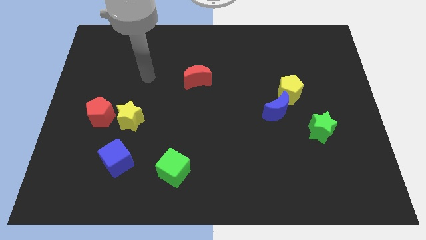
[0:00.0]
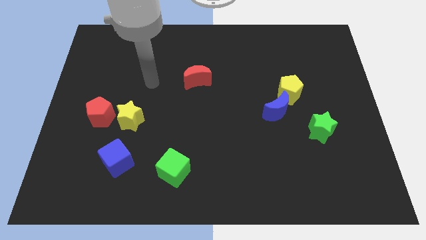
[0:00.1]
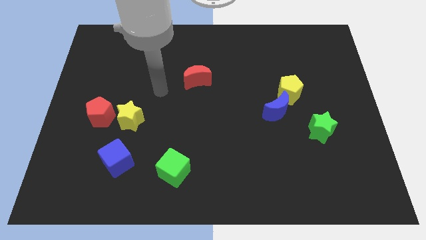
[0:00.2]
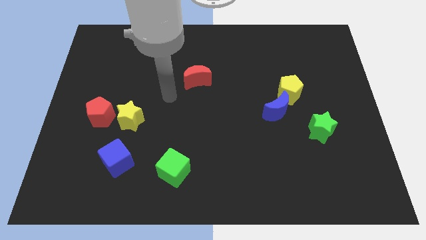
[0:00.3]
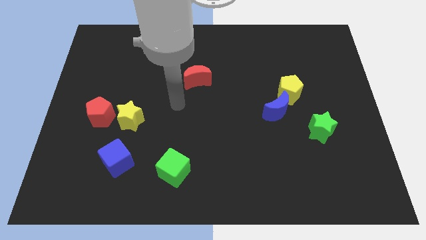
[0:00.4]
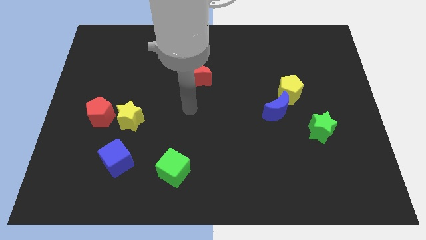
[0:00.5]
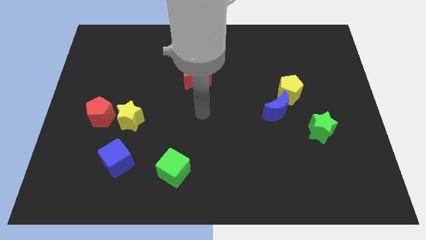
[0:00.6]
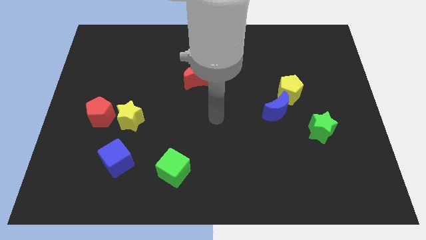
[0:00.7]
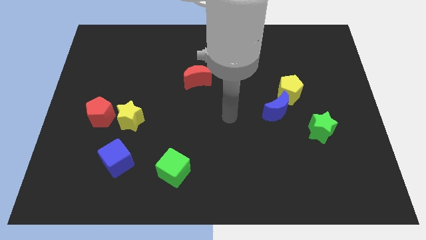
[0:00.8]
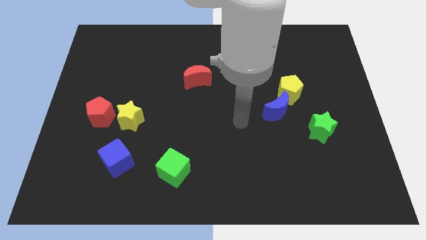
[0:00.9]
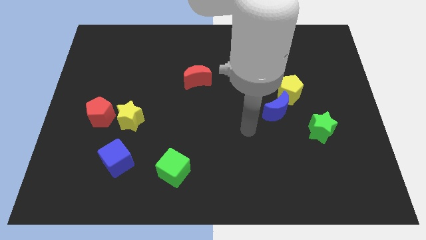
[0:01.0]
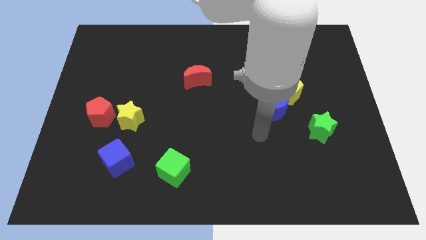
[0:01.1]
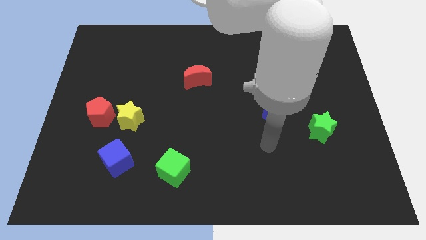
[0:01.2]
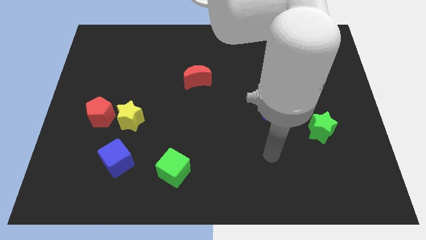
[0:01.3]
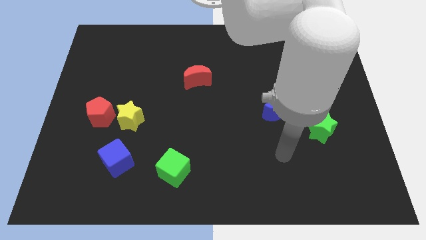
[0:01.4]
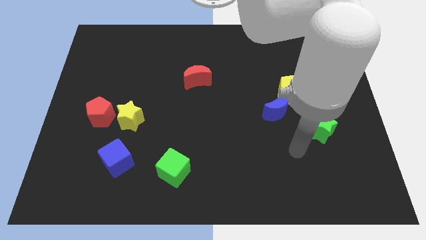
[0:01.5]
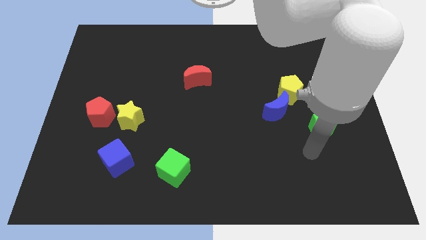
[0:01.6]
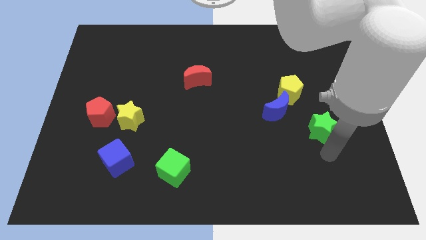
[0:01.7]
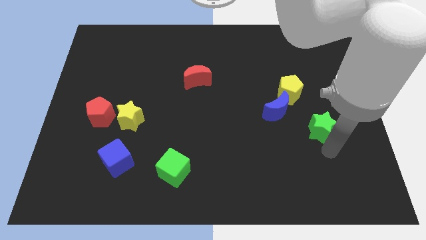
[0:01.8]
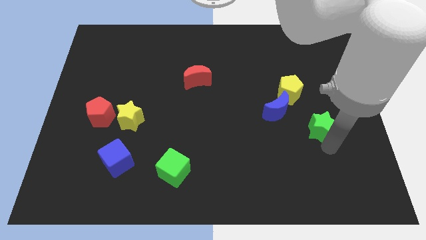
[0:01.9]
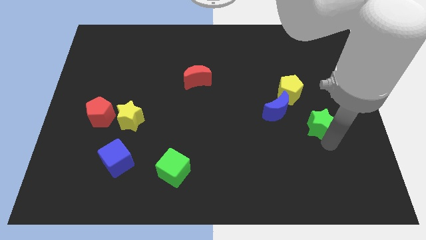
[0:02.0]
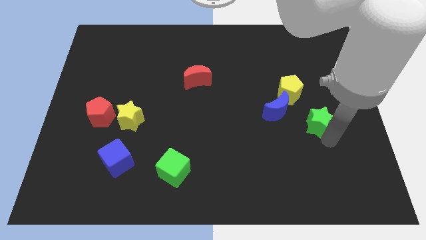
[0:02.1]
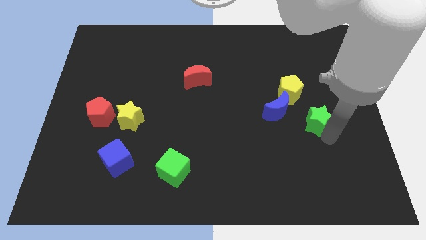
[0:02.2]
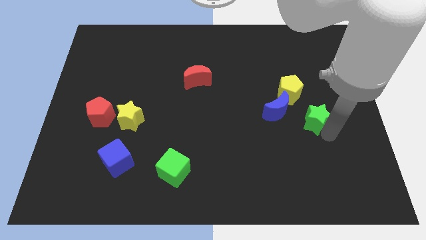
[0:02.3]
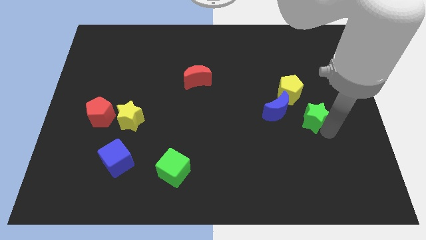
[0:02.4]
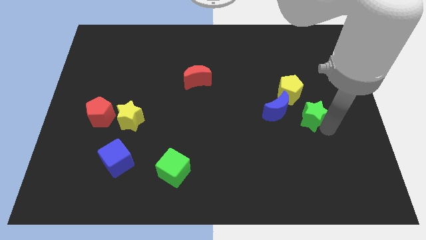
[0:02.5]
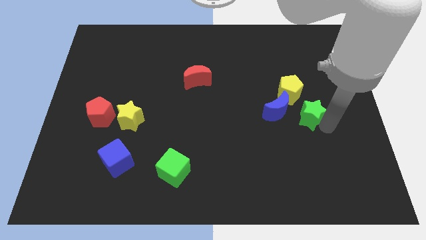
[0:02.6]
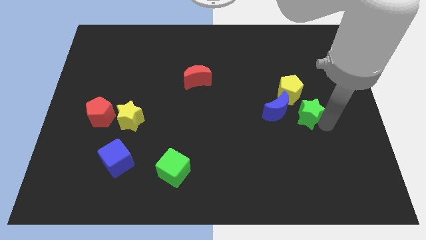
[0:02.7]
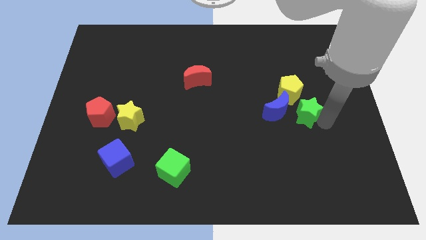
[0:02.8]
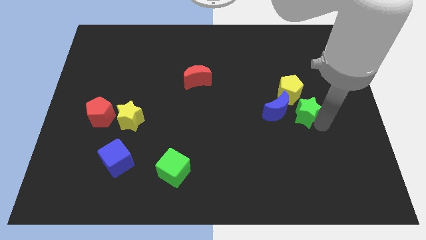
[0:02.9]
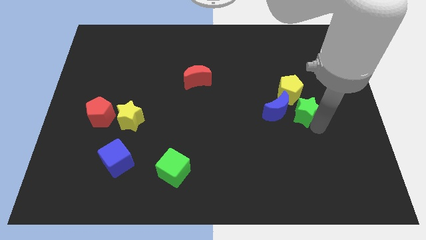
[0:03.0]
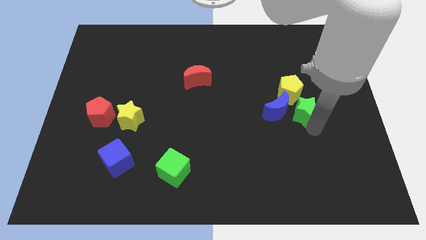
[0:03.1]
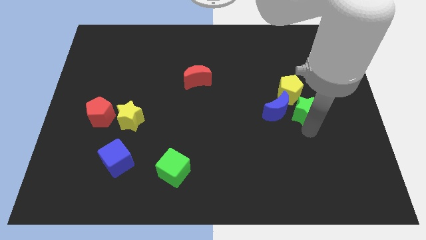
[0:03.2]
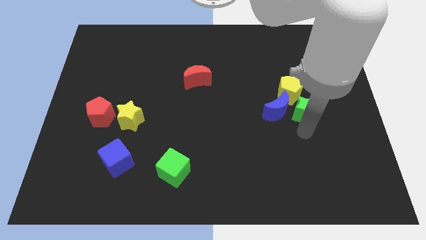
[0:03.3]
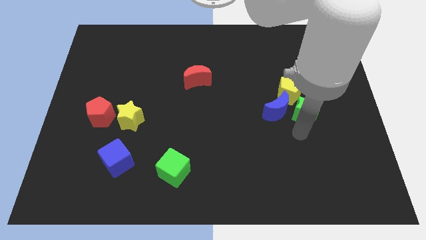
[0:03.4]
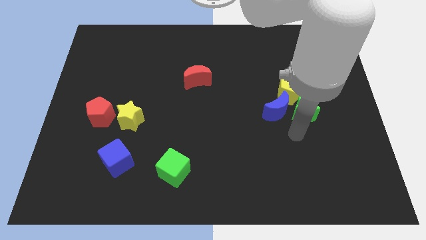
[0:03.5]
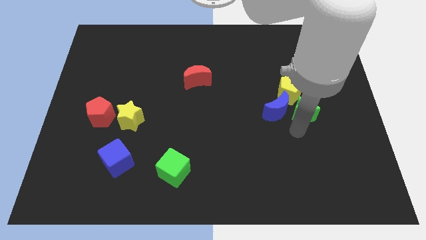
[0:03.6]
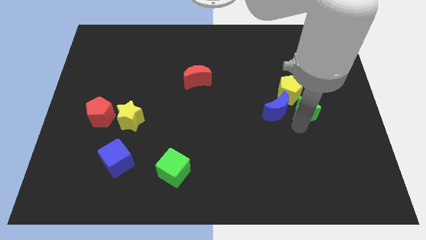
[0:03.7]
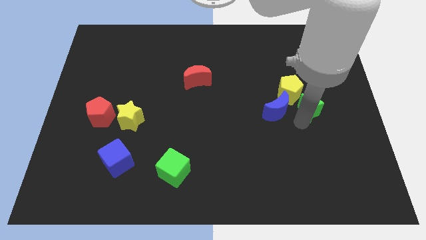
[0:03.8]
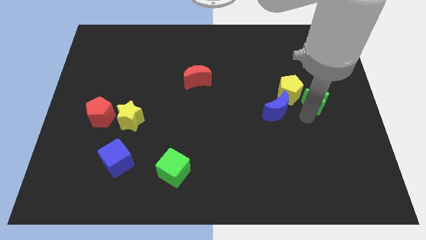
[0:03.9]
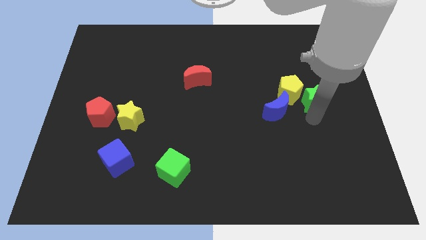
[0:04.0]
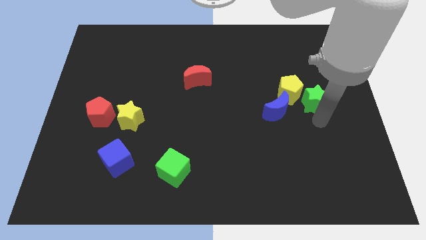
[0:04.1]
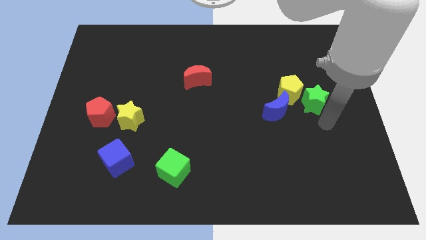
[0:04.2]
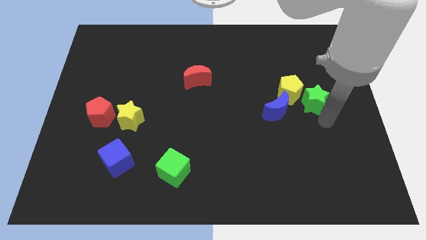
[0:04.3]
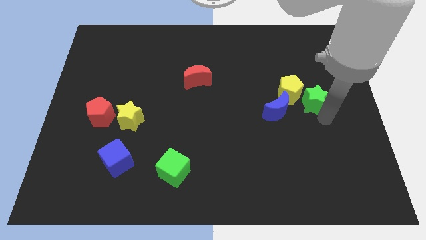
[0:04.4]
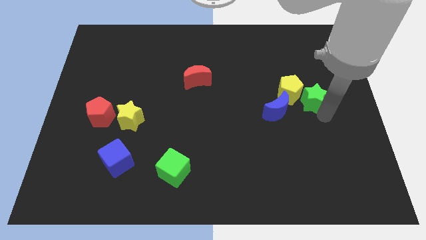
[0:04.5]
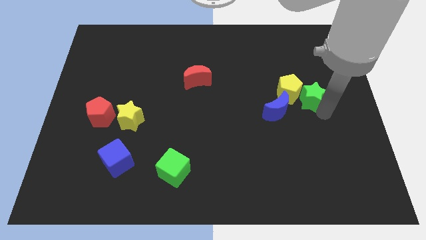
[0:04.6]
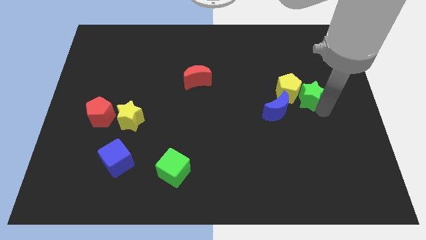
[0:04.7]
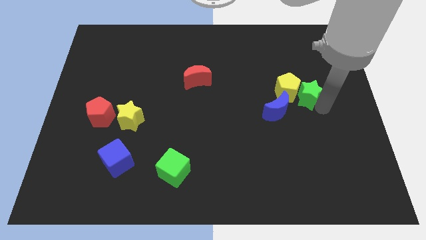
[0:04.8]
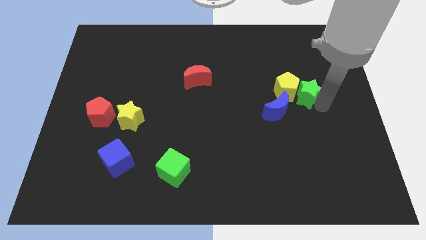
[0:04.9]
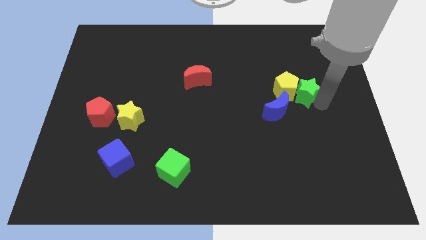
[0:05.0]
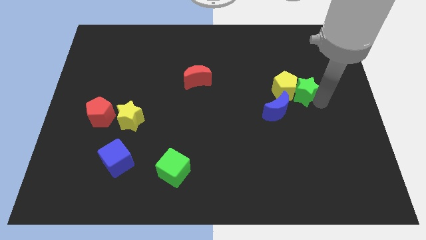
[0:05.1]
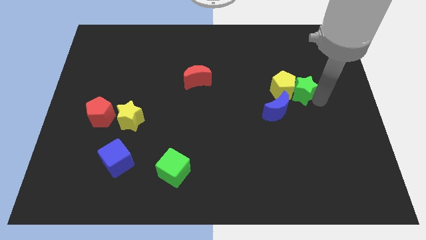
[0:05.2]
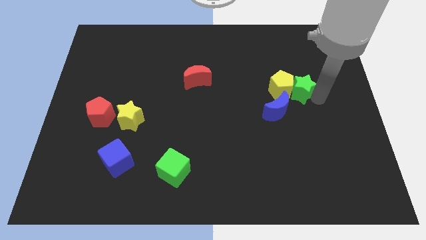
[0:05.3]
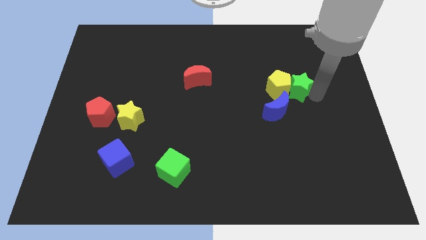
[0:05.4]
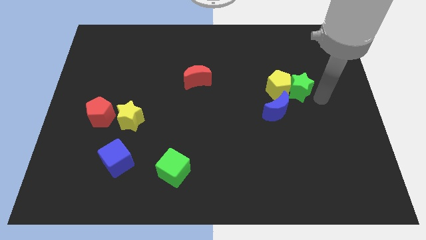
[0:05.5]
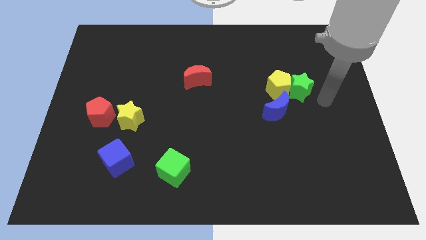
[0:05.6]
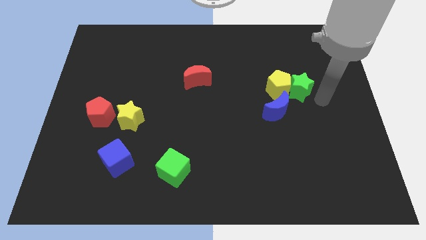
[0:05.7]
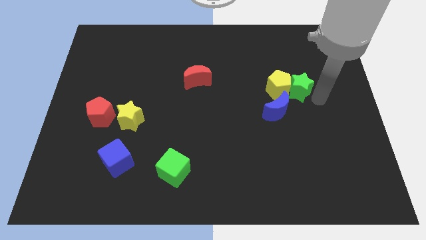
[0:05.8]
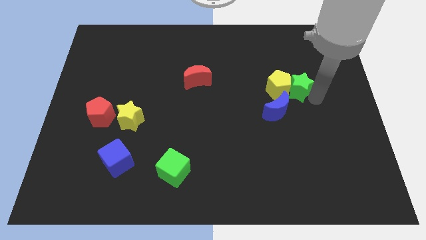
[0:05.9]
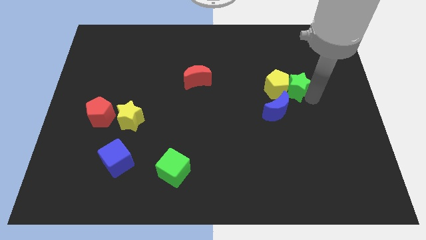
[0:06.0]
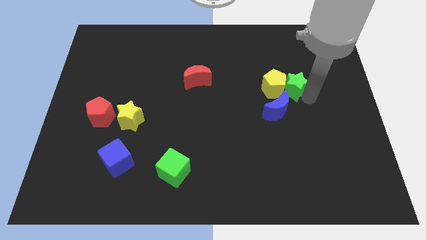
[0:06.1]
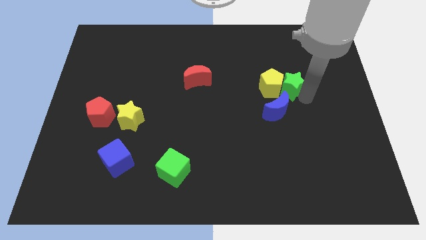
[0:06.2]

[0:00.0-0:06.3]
move the green star to the top side of the blue moon
